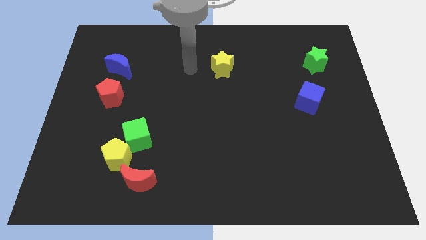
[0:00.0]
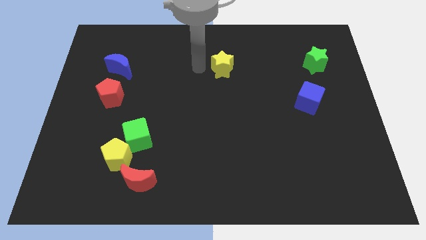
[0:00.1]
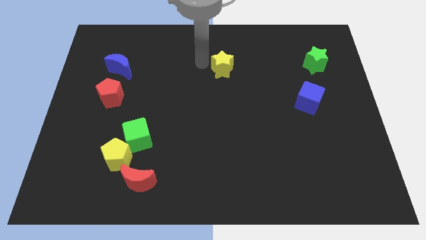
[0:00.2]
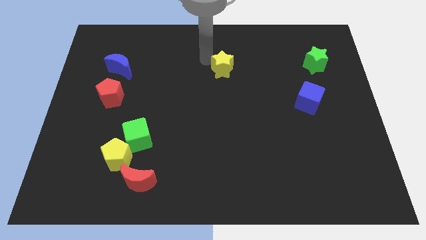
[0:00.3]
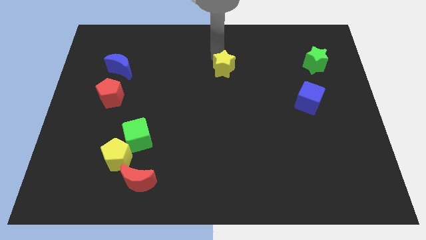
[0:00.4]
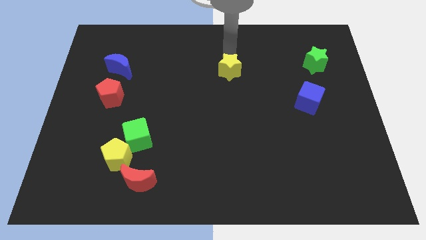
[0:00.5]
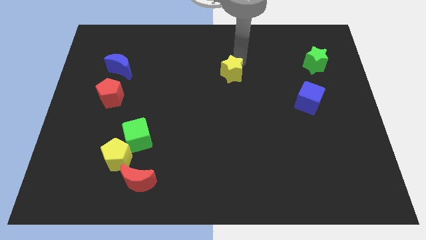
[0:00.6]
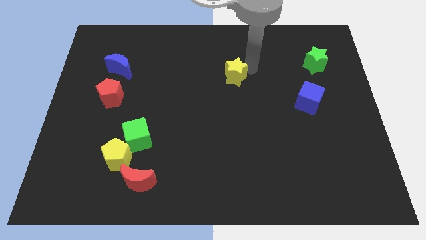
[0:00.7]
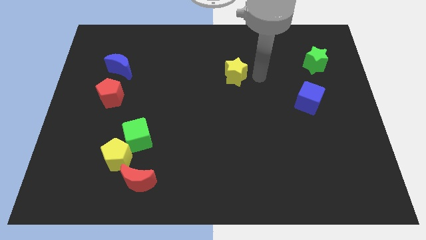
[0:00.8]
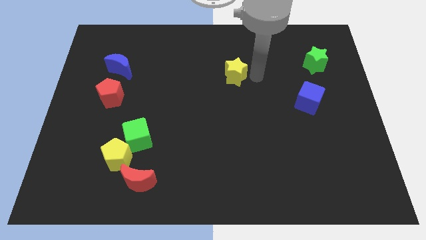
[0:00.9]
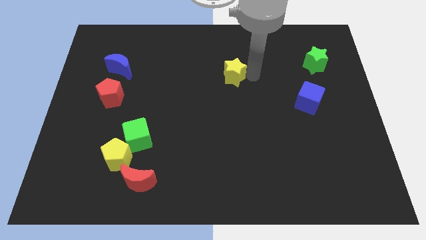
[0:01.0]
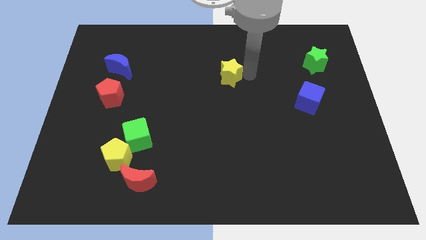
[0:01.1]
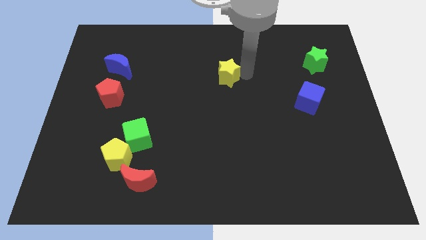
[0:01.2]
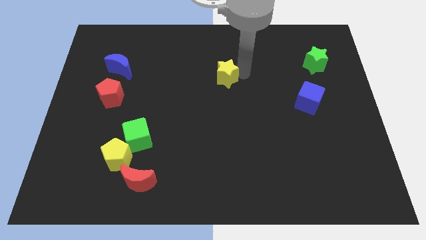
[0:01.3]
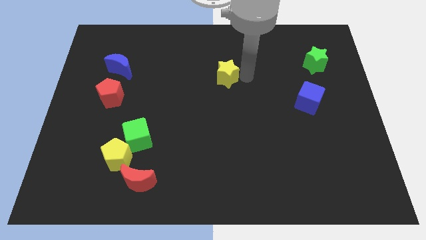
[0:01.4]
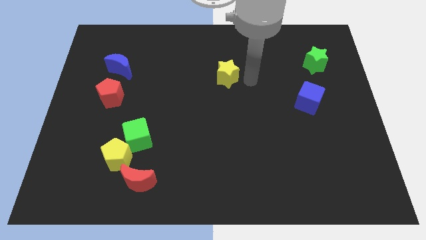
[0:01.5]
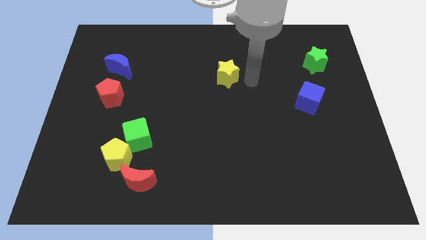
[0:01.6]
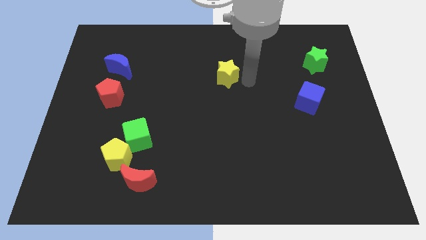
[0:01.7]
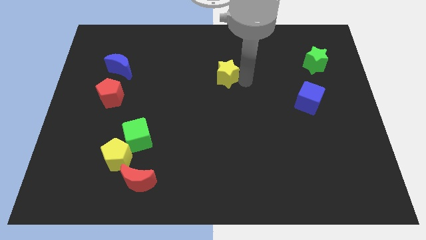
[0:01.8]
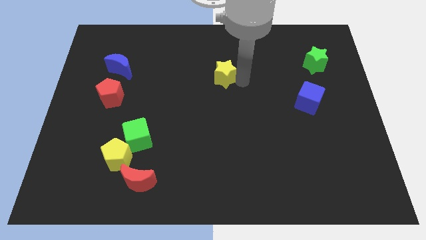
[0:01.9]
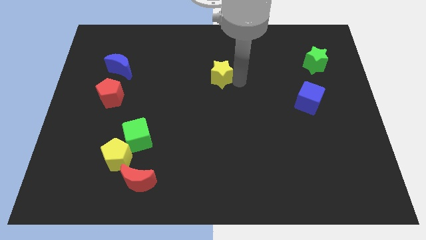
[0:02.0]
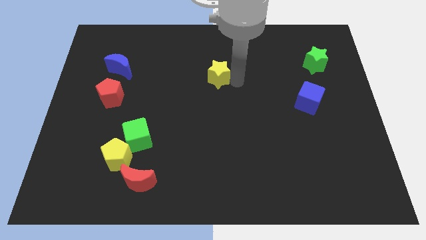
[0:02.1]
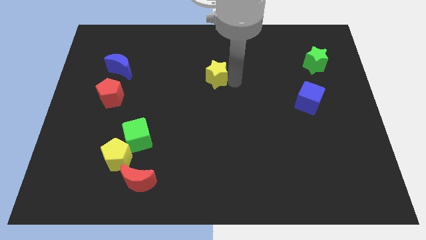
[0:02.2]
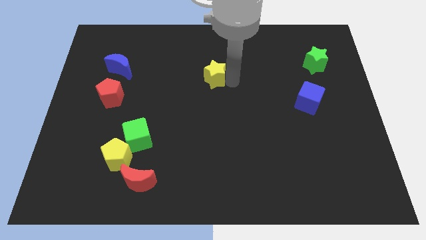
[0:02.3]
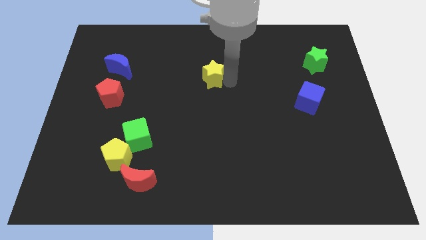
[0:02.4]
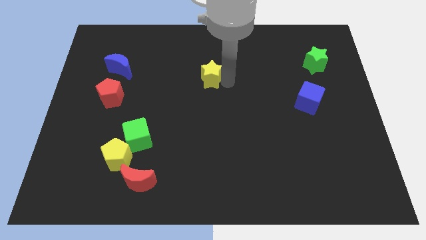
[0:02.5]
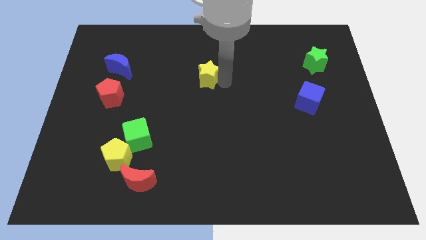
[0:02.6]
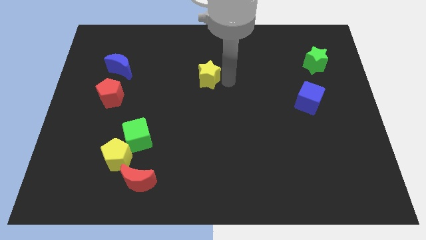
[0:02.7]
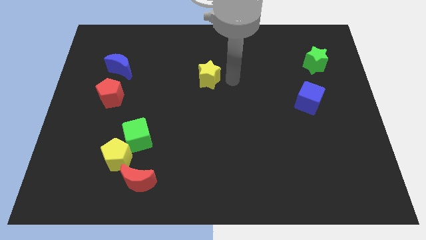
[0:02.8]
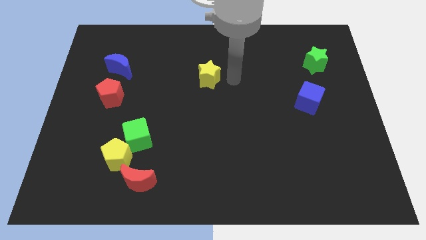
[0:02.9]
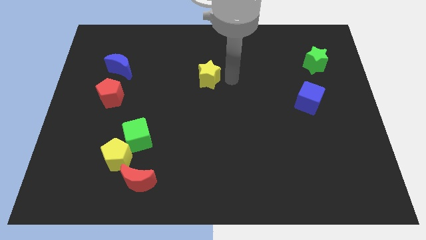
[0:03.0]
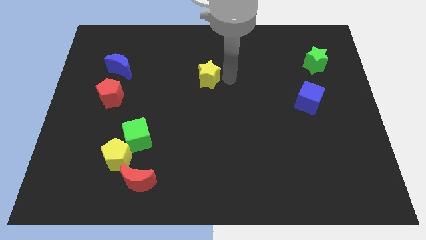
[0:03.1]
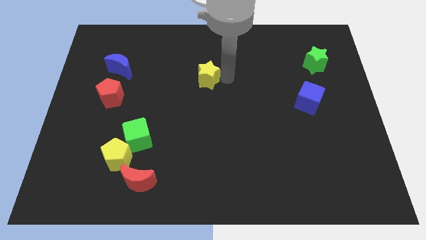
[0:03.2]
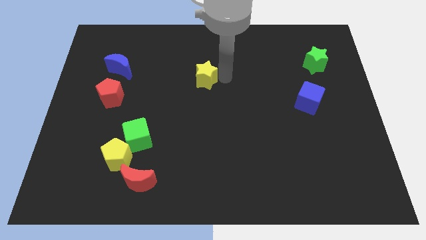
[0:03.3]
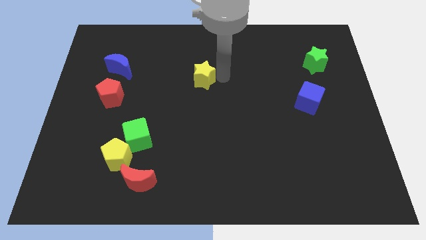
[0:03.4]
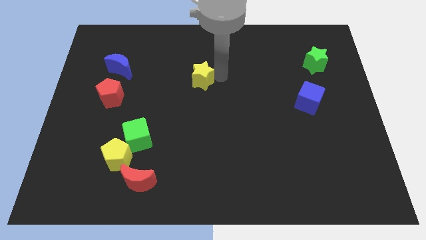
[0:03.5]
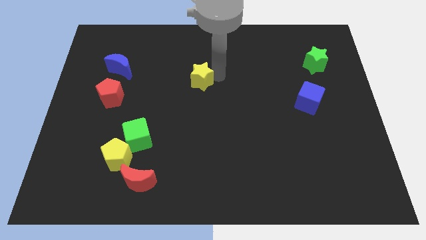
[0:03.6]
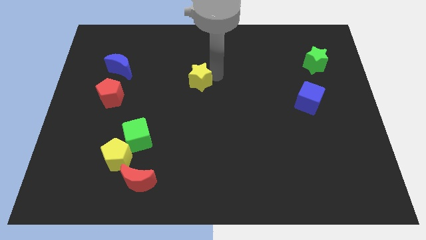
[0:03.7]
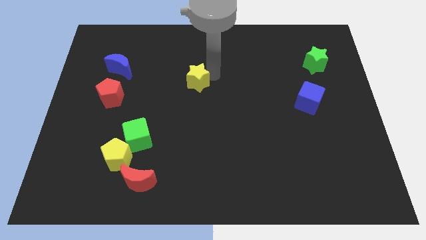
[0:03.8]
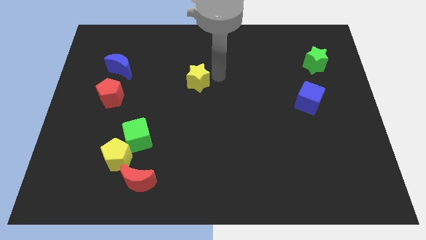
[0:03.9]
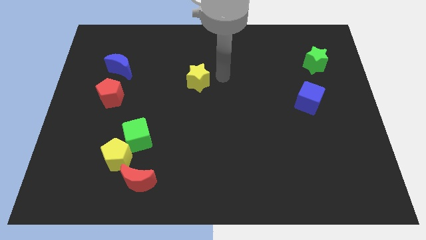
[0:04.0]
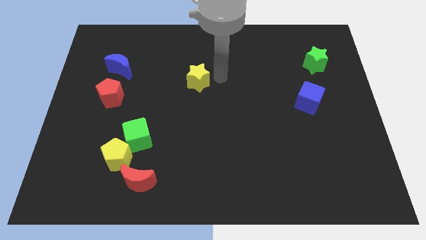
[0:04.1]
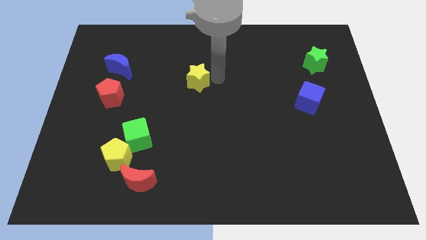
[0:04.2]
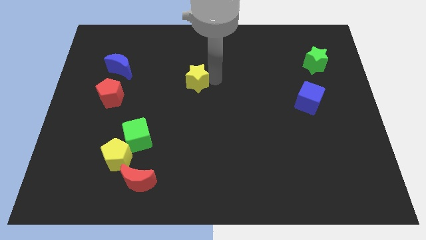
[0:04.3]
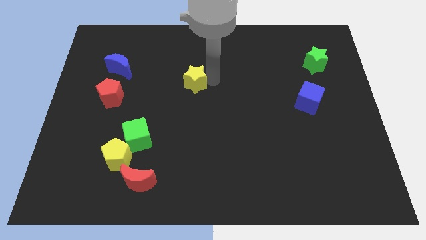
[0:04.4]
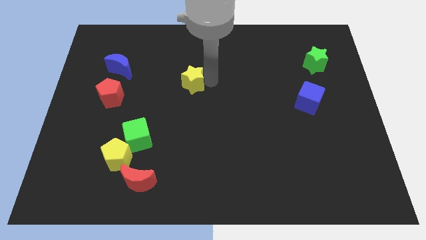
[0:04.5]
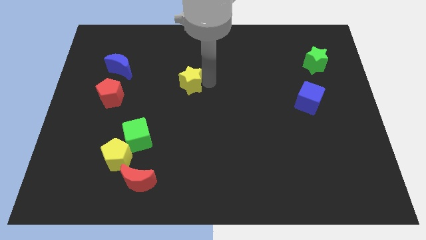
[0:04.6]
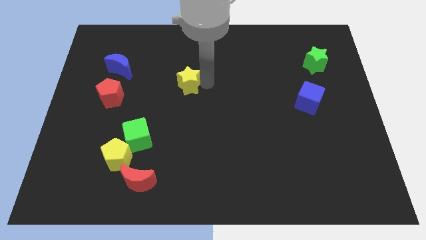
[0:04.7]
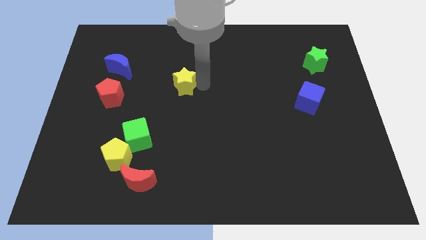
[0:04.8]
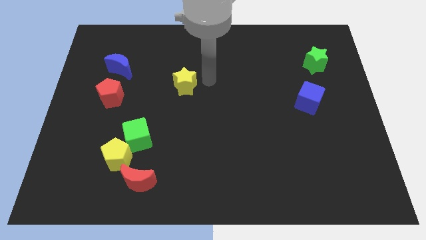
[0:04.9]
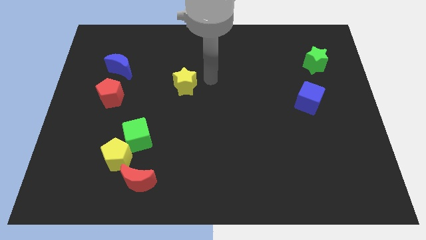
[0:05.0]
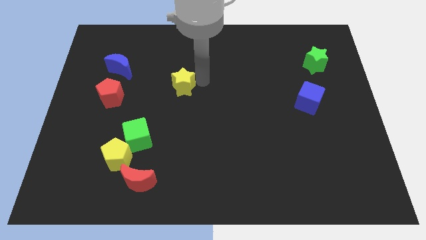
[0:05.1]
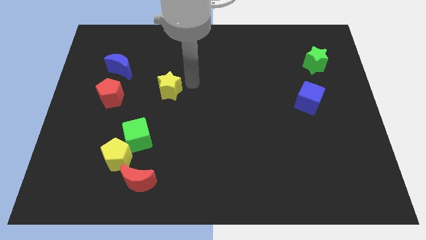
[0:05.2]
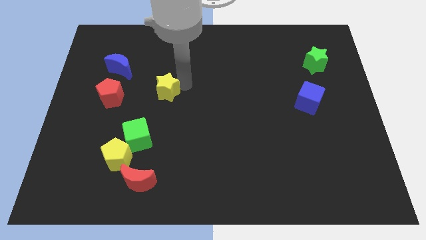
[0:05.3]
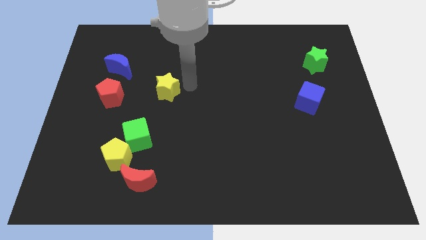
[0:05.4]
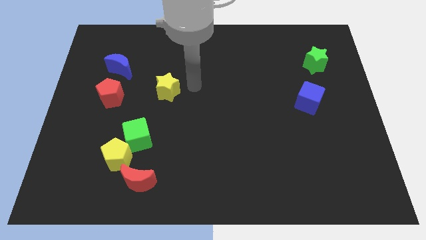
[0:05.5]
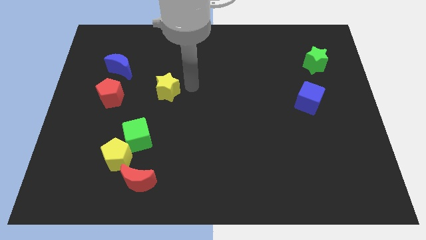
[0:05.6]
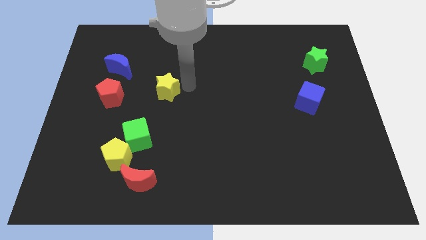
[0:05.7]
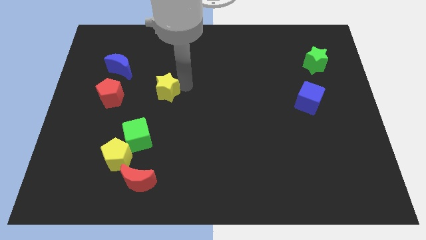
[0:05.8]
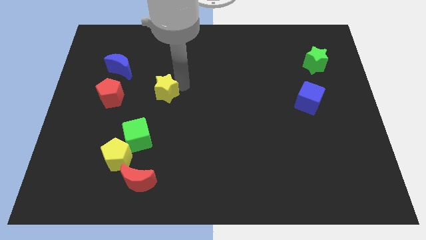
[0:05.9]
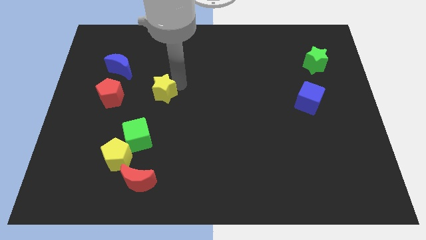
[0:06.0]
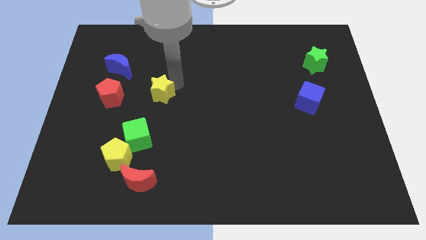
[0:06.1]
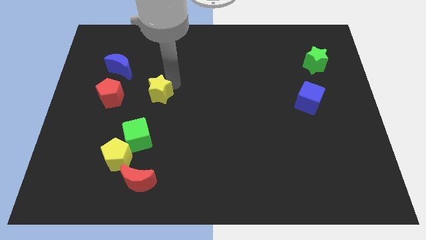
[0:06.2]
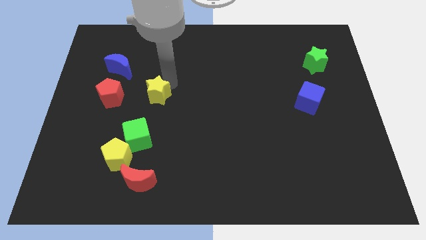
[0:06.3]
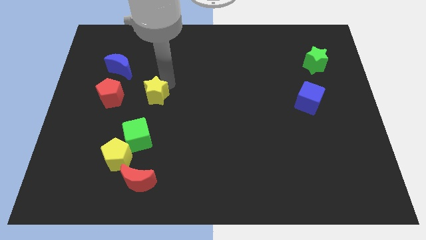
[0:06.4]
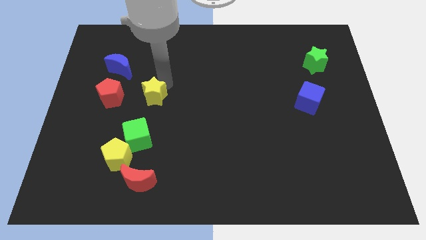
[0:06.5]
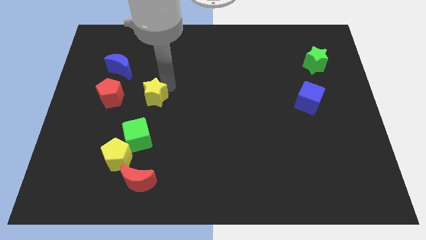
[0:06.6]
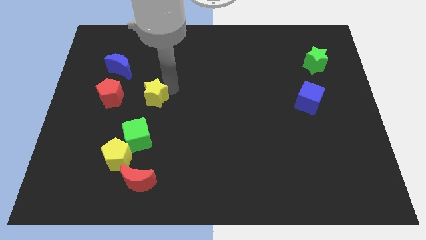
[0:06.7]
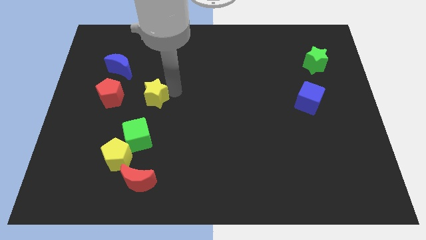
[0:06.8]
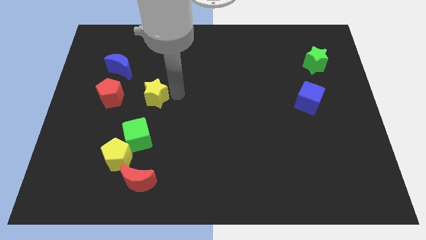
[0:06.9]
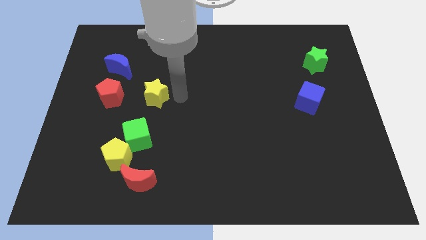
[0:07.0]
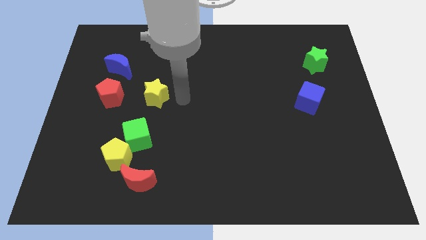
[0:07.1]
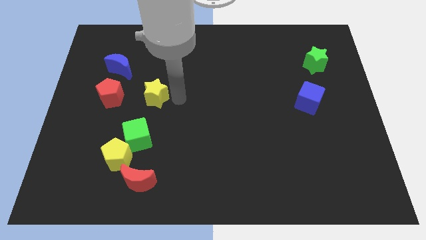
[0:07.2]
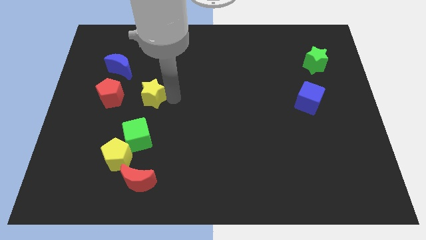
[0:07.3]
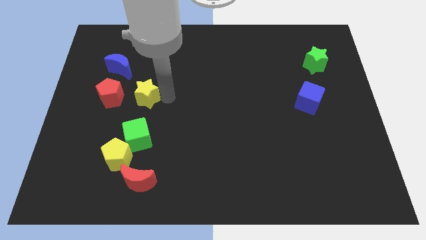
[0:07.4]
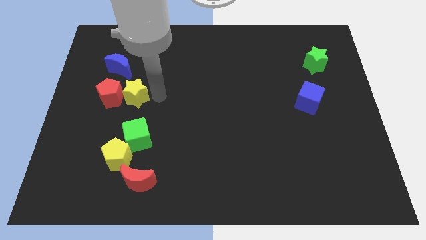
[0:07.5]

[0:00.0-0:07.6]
put the yellow star next to the red pentagon

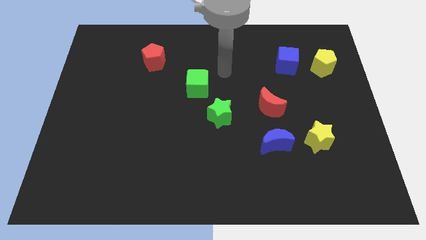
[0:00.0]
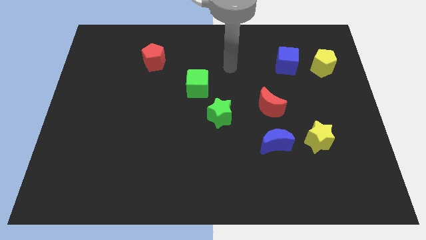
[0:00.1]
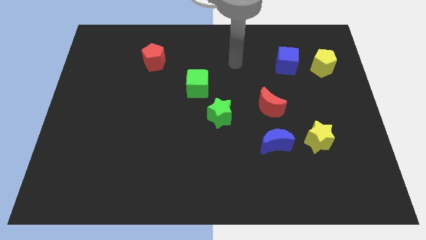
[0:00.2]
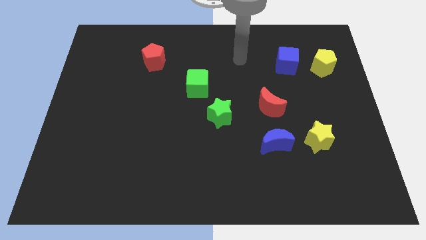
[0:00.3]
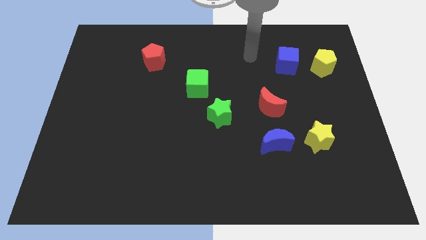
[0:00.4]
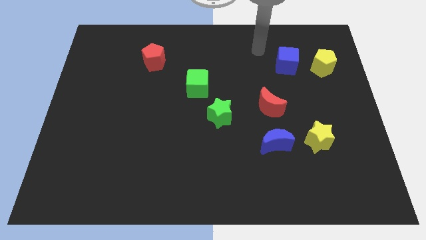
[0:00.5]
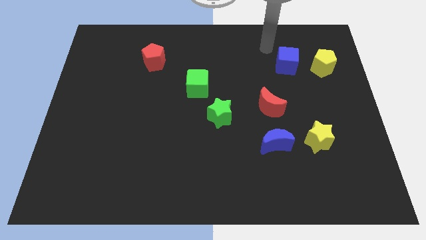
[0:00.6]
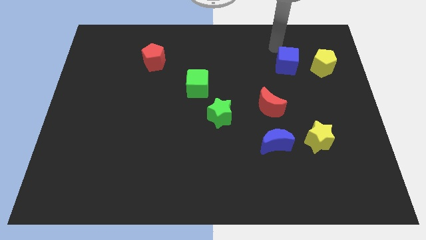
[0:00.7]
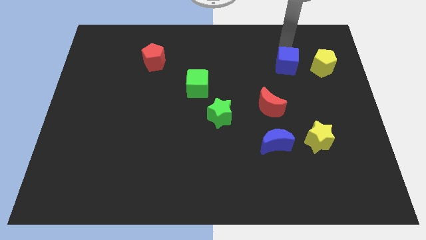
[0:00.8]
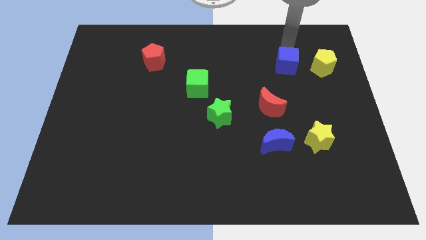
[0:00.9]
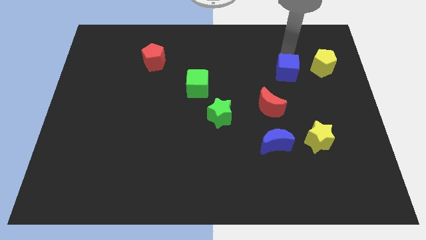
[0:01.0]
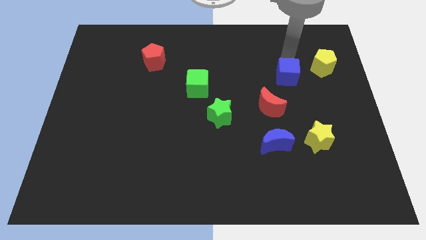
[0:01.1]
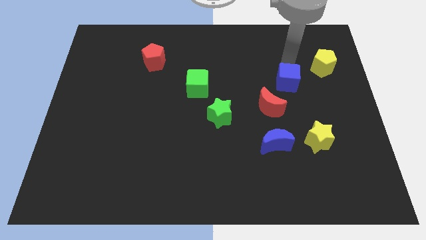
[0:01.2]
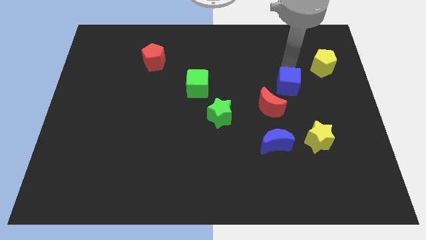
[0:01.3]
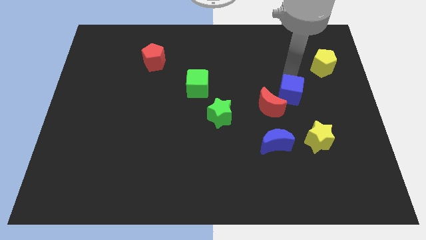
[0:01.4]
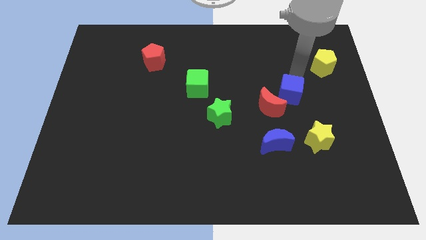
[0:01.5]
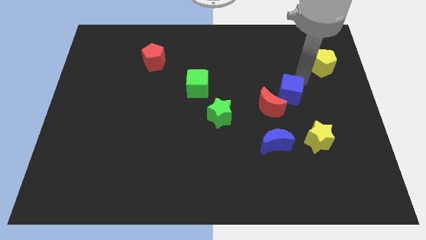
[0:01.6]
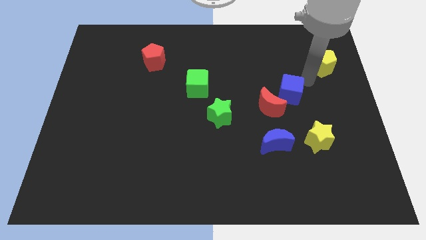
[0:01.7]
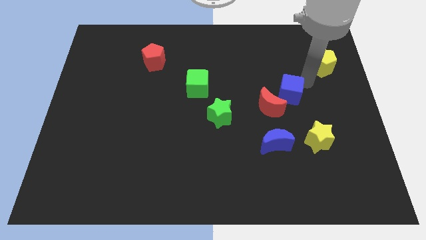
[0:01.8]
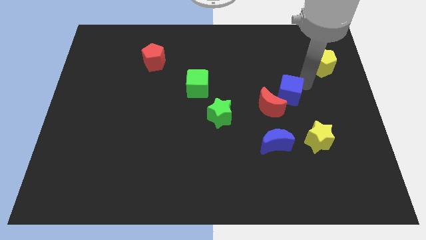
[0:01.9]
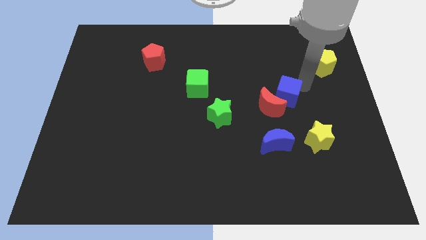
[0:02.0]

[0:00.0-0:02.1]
put the blue cube next to the red moon
